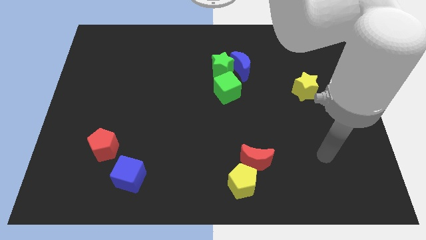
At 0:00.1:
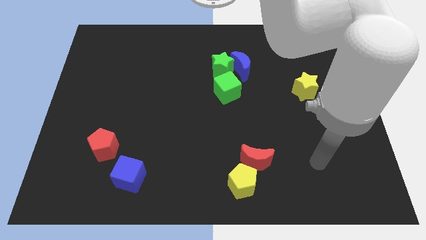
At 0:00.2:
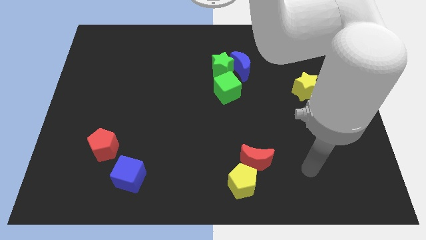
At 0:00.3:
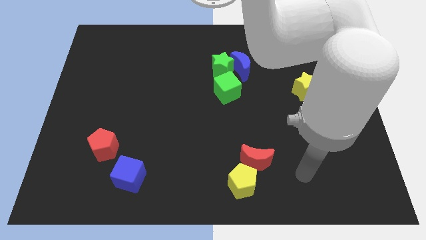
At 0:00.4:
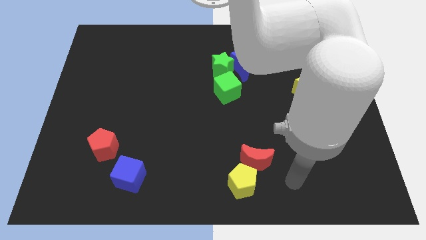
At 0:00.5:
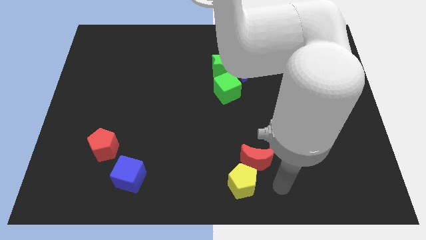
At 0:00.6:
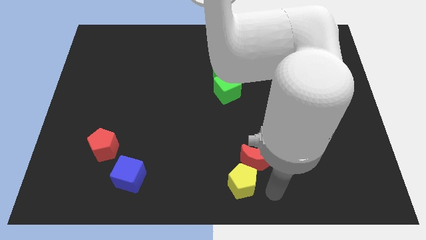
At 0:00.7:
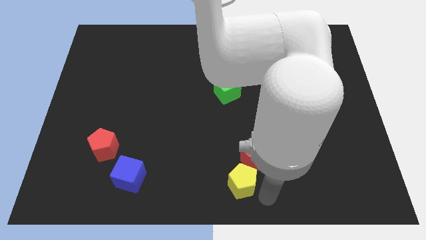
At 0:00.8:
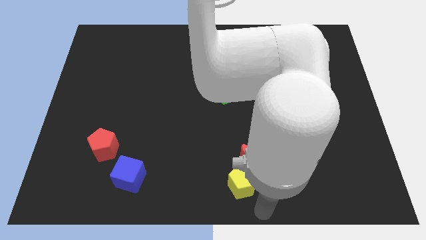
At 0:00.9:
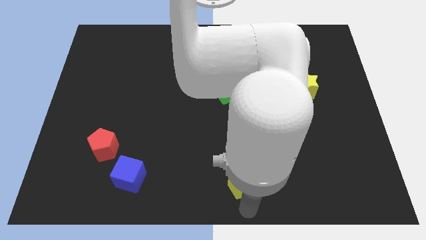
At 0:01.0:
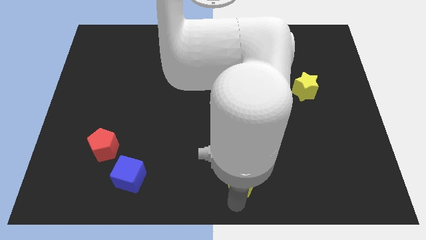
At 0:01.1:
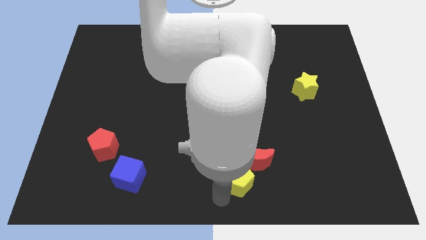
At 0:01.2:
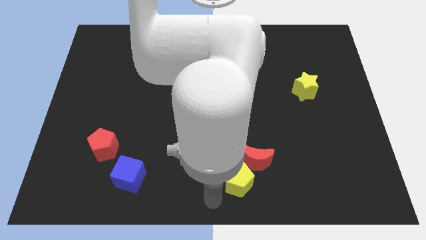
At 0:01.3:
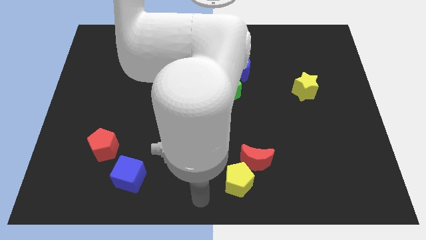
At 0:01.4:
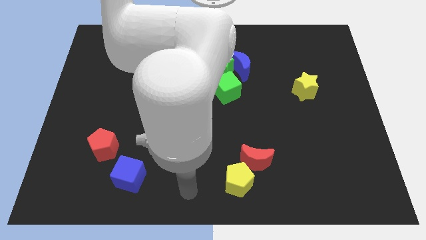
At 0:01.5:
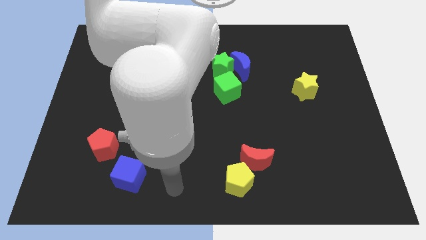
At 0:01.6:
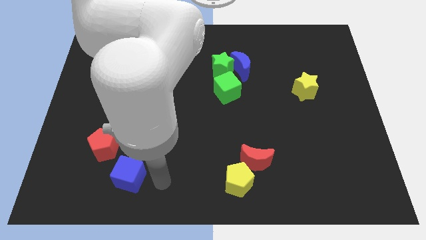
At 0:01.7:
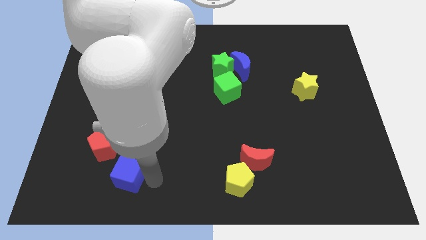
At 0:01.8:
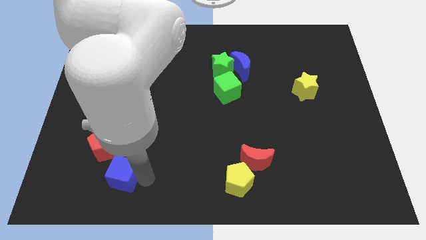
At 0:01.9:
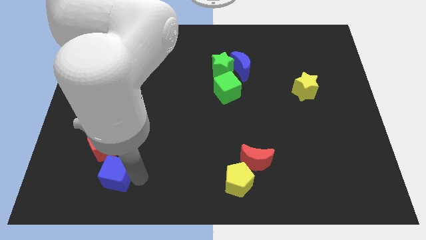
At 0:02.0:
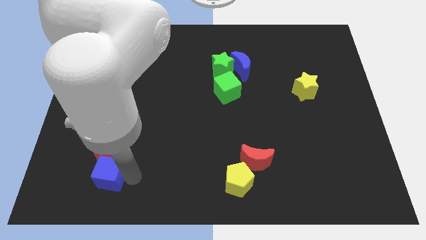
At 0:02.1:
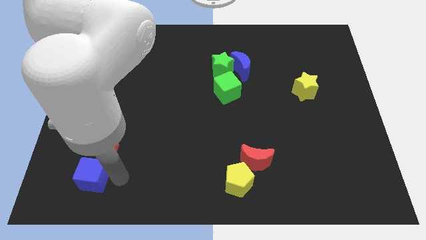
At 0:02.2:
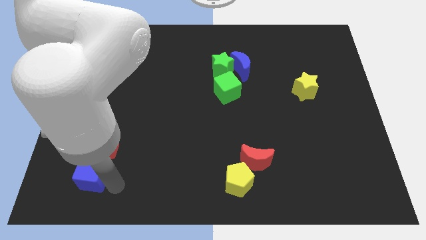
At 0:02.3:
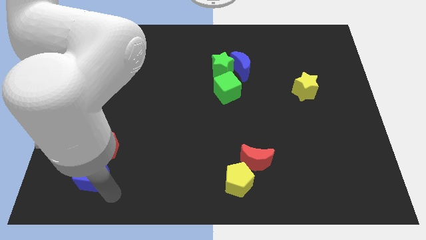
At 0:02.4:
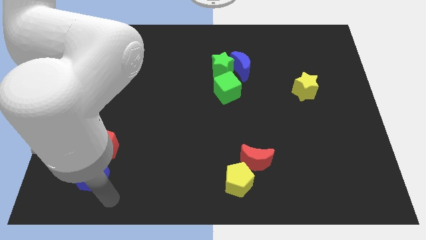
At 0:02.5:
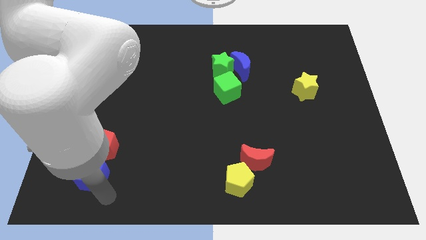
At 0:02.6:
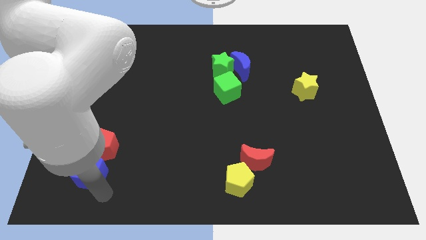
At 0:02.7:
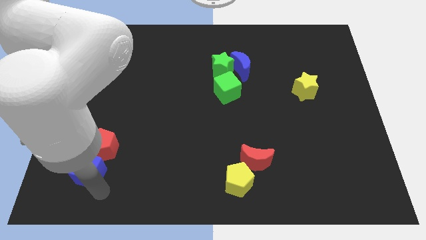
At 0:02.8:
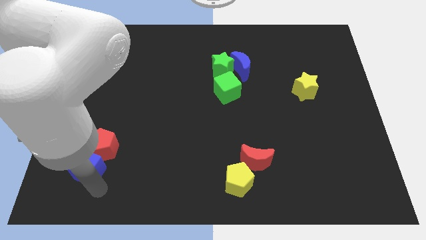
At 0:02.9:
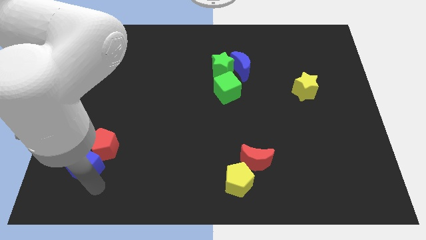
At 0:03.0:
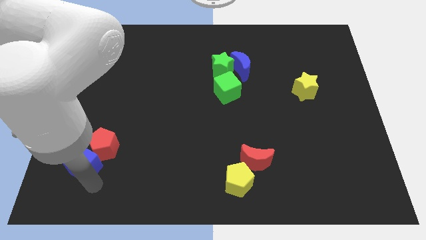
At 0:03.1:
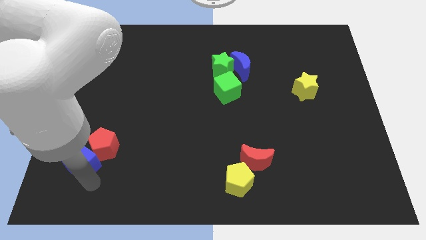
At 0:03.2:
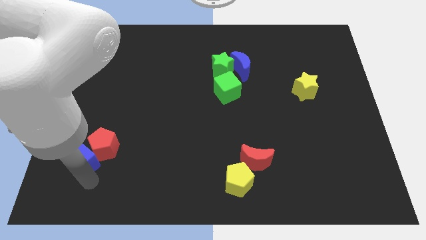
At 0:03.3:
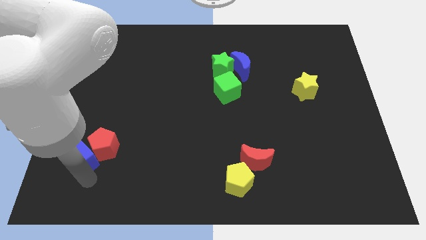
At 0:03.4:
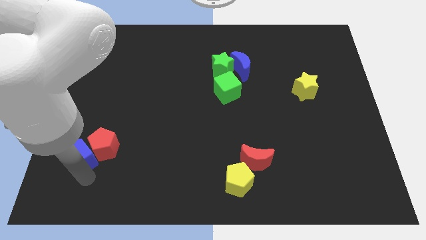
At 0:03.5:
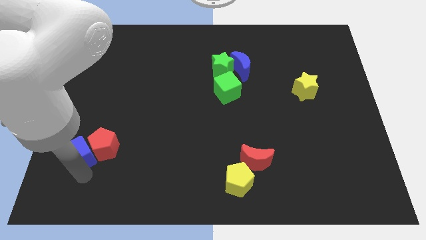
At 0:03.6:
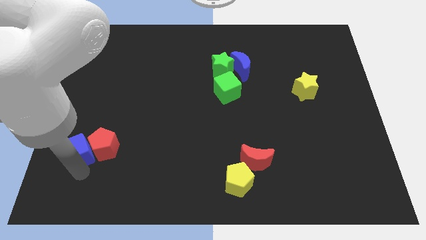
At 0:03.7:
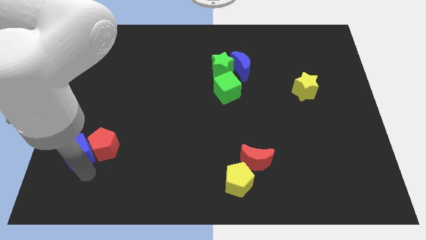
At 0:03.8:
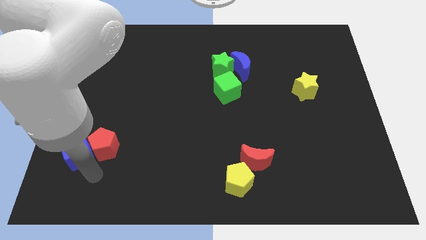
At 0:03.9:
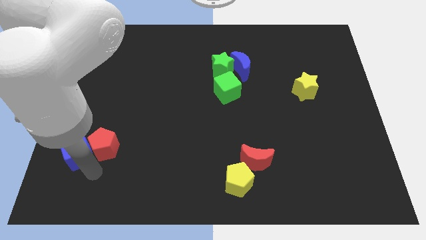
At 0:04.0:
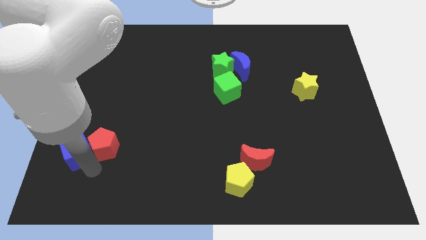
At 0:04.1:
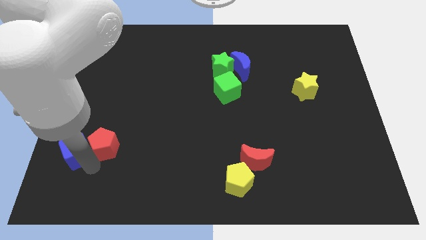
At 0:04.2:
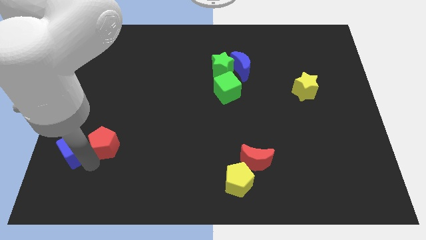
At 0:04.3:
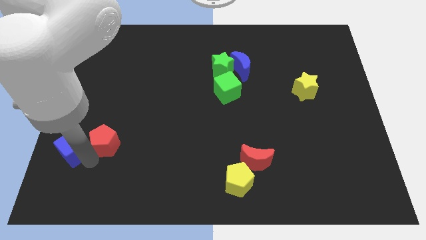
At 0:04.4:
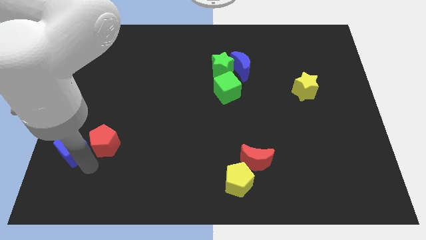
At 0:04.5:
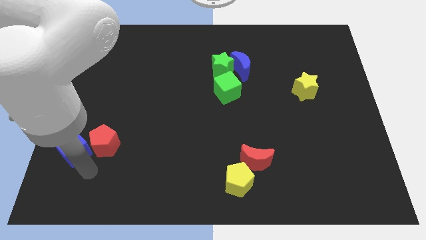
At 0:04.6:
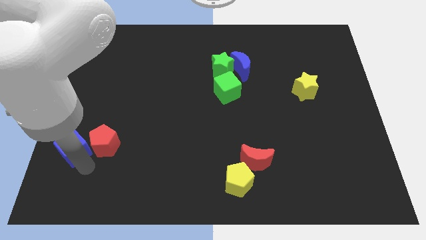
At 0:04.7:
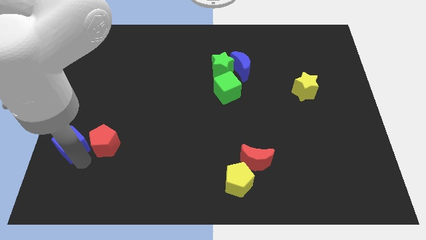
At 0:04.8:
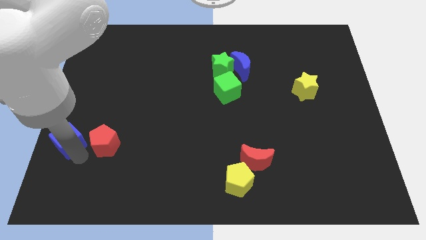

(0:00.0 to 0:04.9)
push the blue cube to the center left

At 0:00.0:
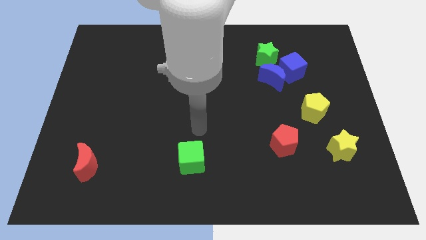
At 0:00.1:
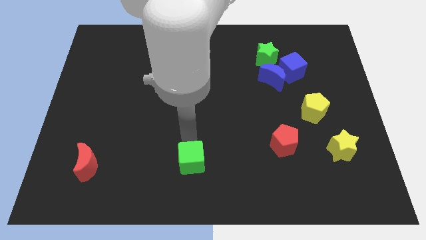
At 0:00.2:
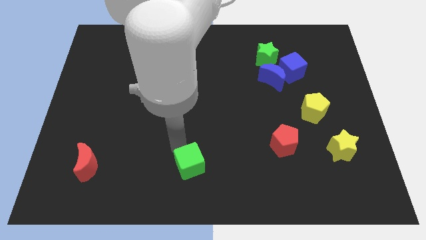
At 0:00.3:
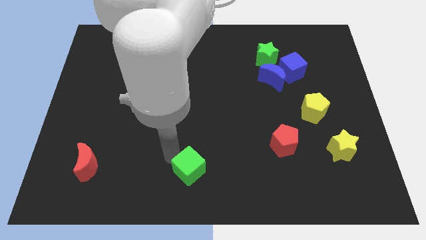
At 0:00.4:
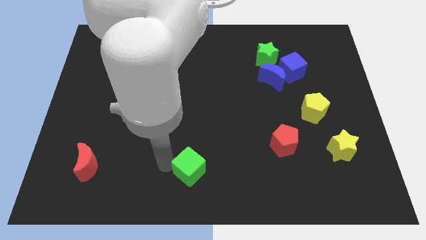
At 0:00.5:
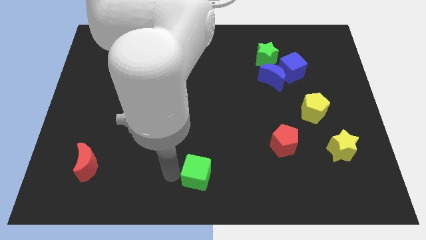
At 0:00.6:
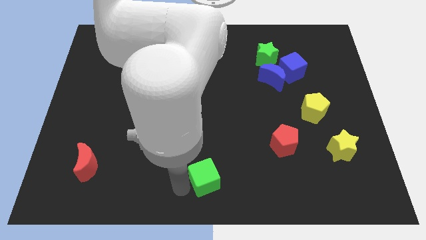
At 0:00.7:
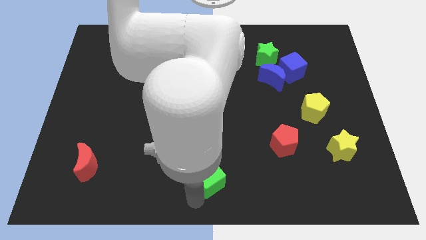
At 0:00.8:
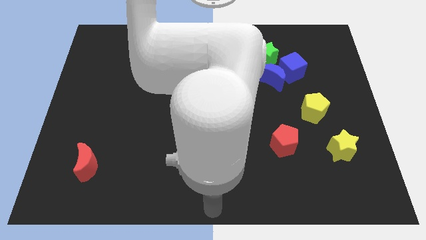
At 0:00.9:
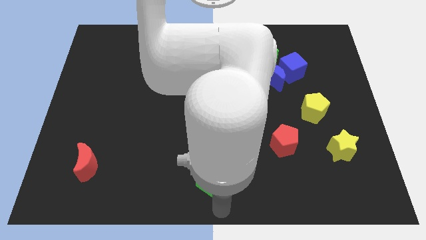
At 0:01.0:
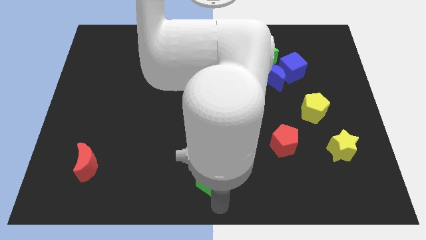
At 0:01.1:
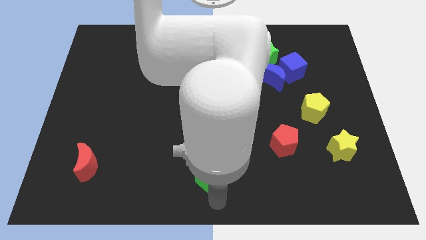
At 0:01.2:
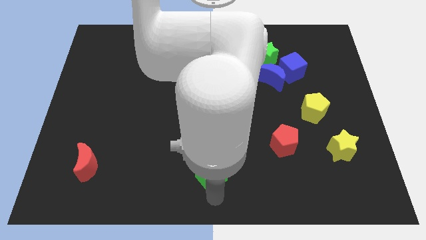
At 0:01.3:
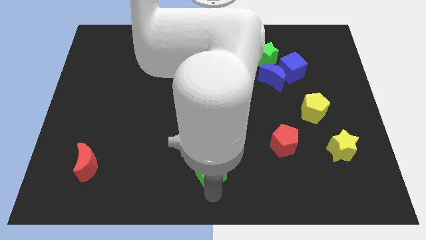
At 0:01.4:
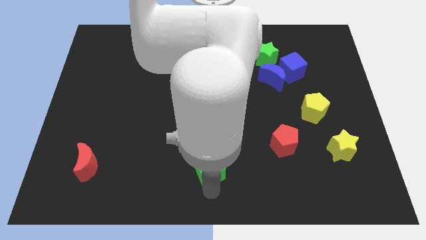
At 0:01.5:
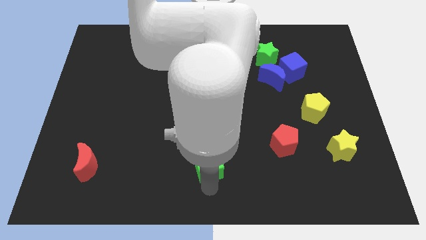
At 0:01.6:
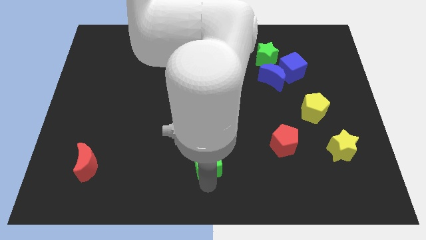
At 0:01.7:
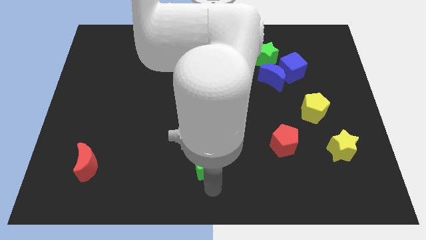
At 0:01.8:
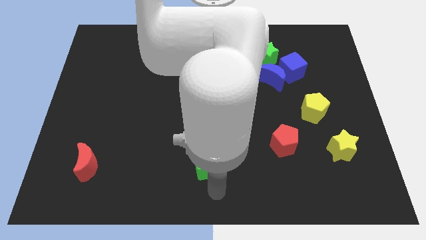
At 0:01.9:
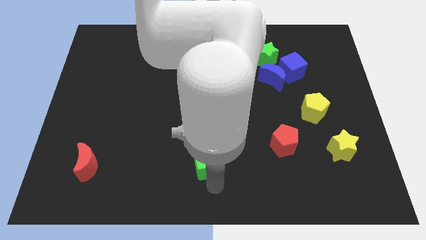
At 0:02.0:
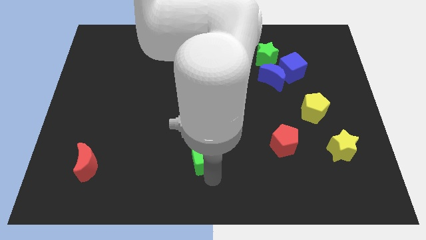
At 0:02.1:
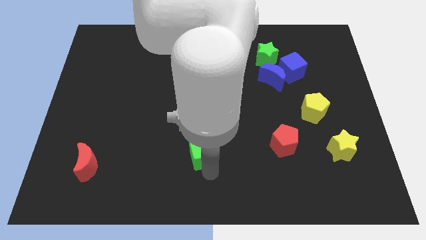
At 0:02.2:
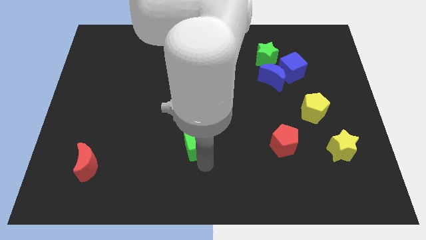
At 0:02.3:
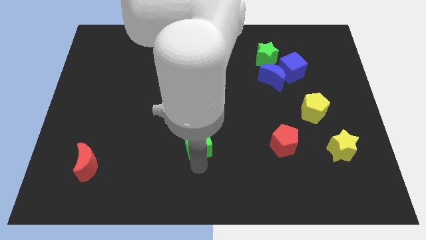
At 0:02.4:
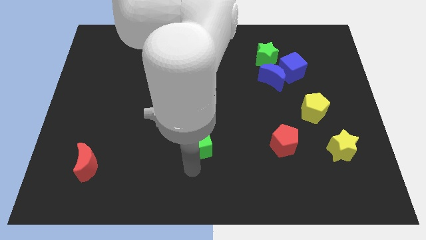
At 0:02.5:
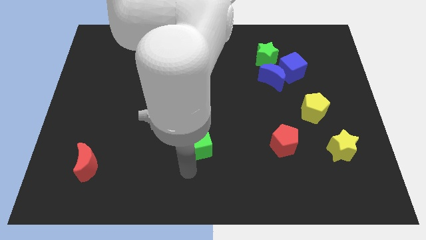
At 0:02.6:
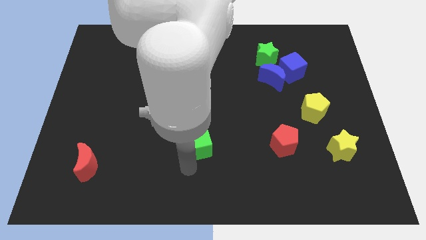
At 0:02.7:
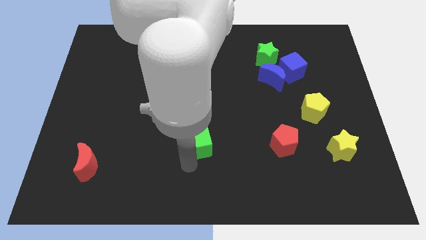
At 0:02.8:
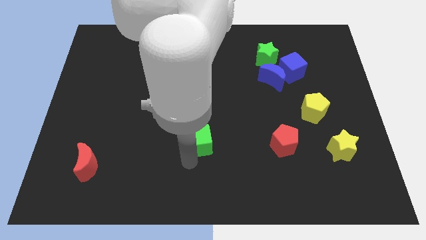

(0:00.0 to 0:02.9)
push the green cube to the middle of the board
